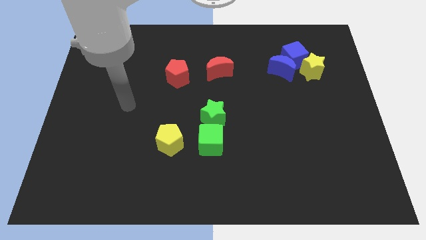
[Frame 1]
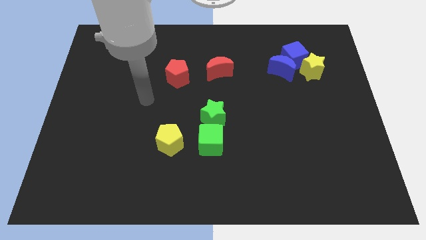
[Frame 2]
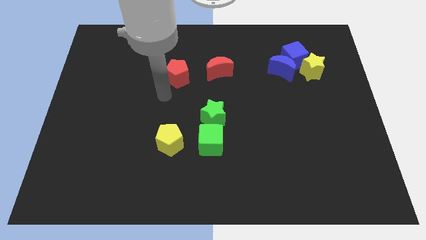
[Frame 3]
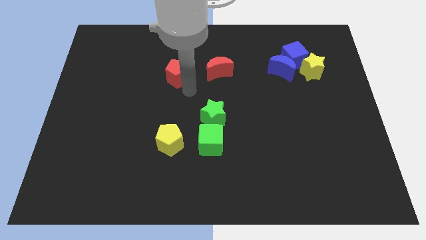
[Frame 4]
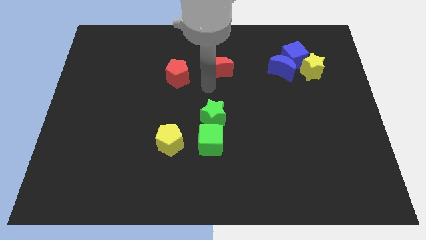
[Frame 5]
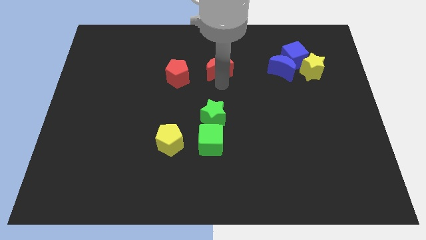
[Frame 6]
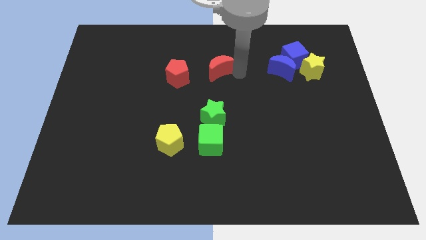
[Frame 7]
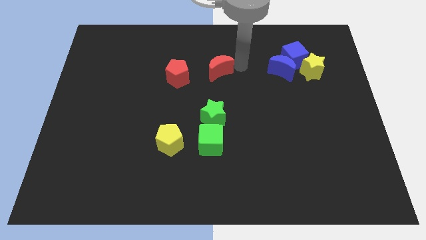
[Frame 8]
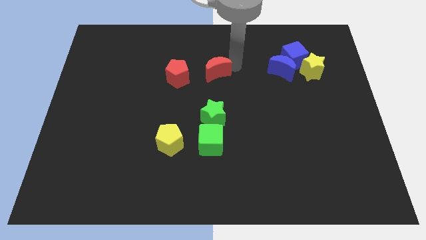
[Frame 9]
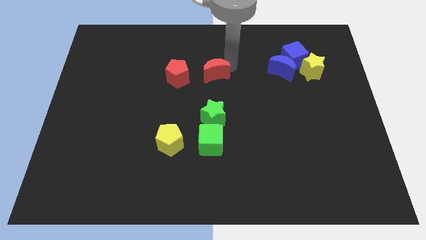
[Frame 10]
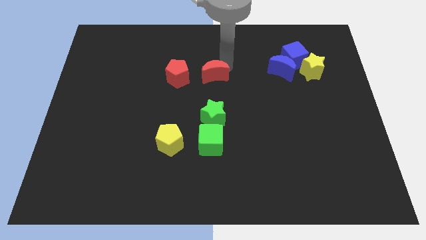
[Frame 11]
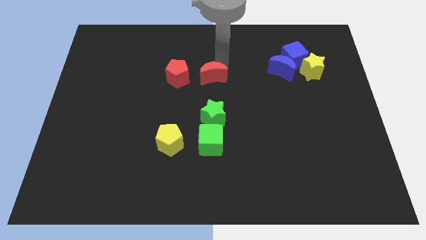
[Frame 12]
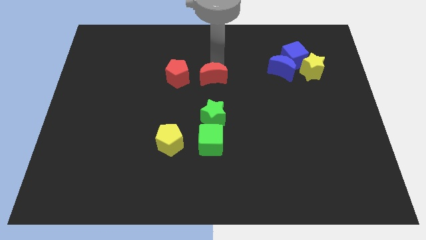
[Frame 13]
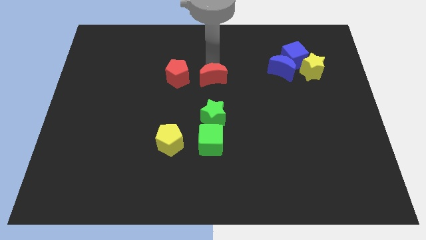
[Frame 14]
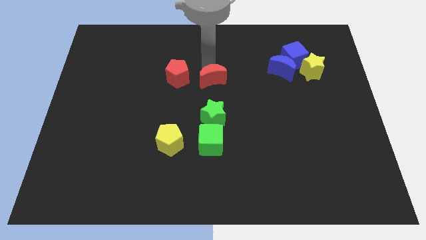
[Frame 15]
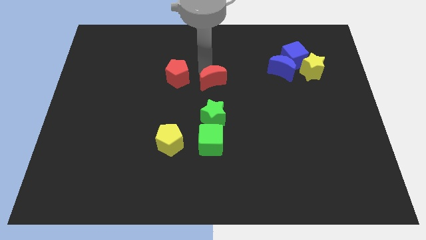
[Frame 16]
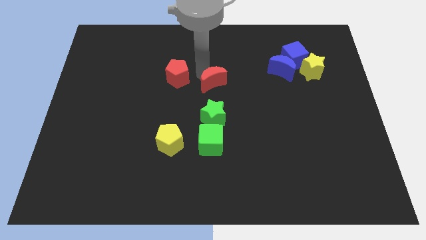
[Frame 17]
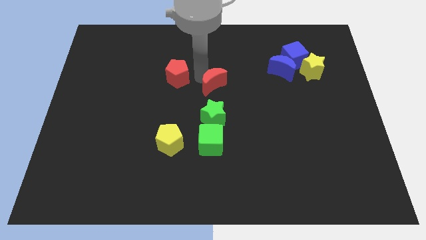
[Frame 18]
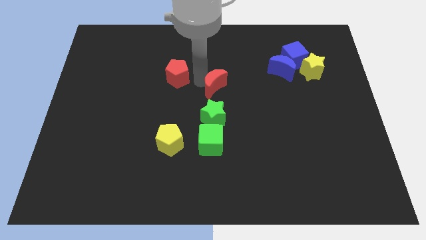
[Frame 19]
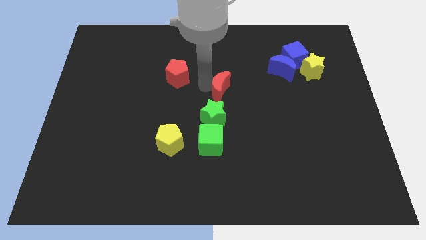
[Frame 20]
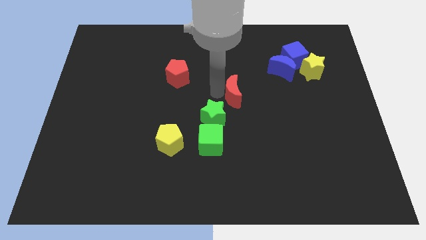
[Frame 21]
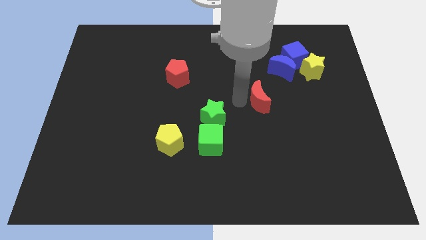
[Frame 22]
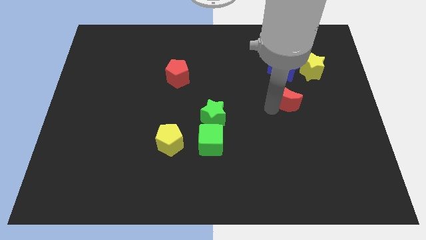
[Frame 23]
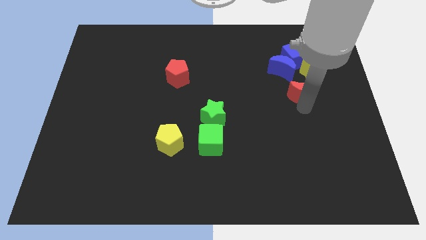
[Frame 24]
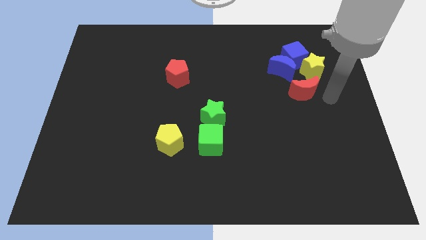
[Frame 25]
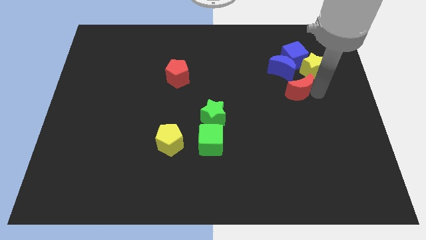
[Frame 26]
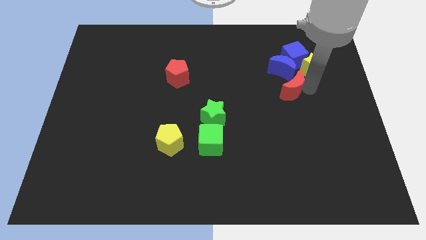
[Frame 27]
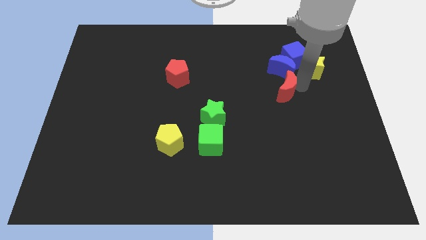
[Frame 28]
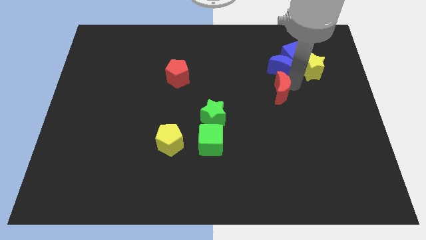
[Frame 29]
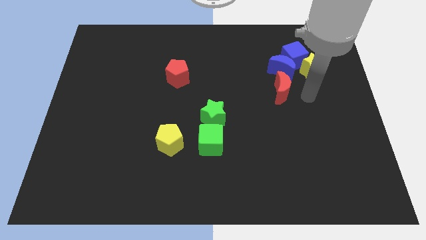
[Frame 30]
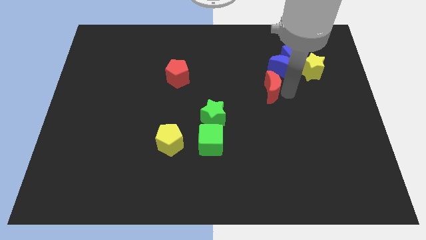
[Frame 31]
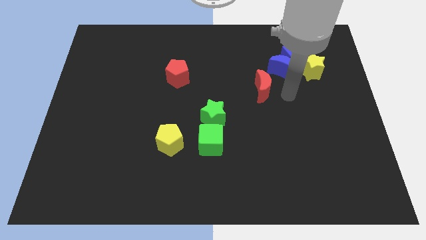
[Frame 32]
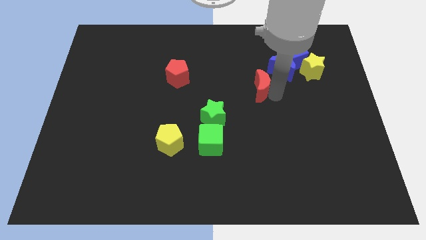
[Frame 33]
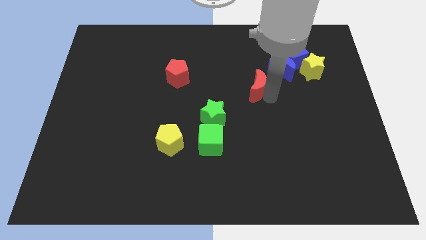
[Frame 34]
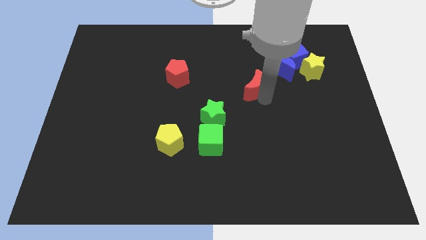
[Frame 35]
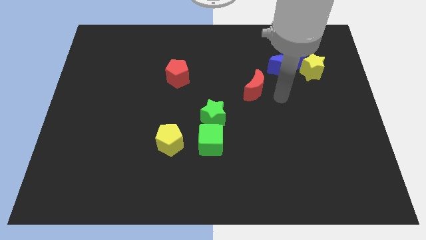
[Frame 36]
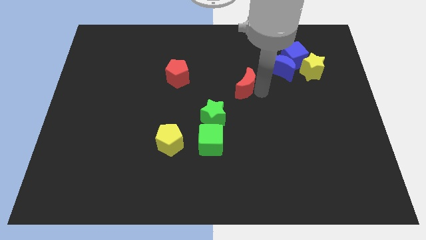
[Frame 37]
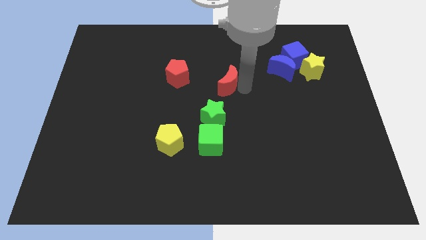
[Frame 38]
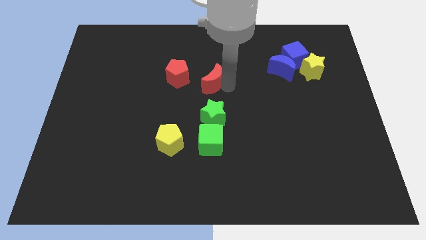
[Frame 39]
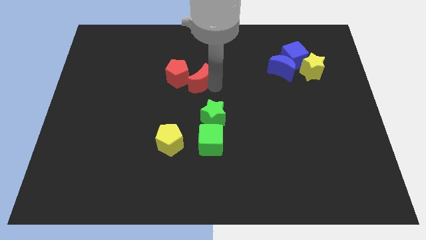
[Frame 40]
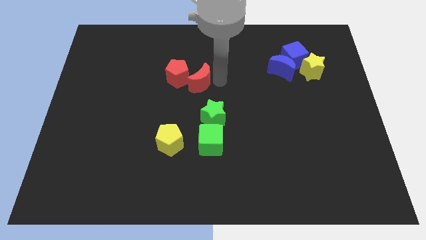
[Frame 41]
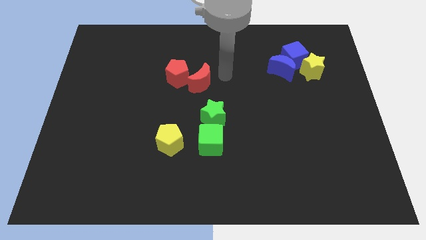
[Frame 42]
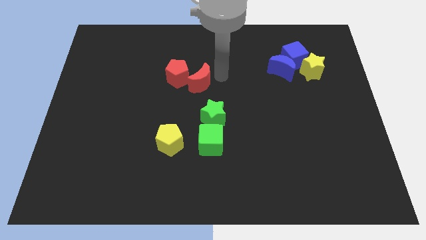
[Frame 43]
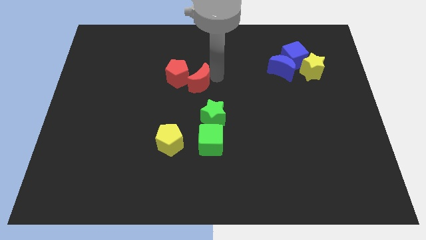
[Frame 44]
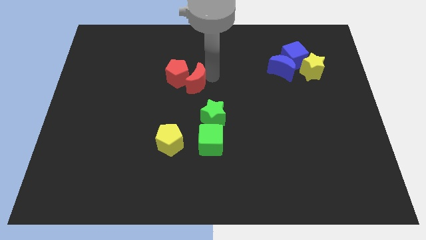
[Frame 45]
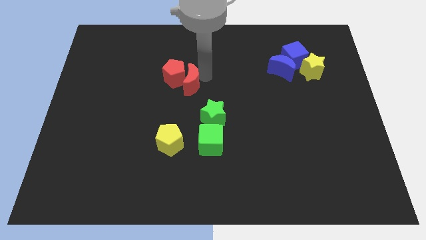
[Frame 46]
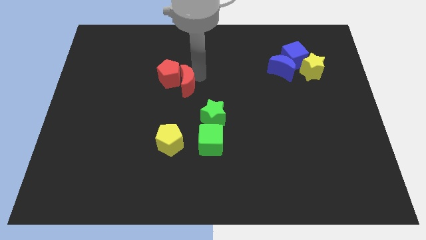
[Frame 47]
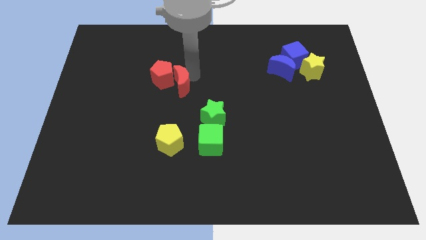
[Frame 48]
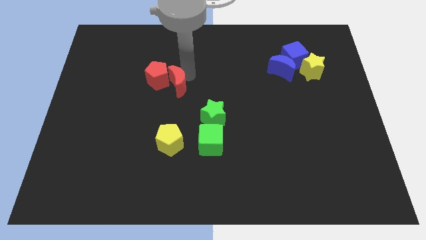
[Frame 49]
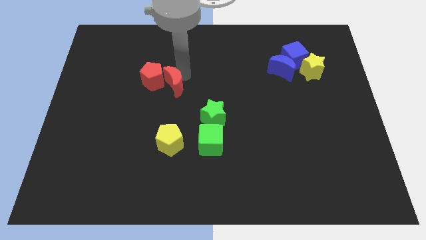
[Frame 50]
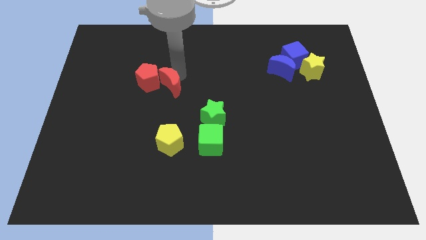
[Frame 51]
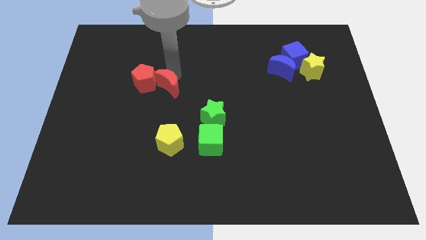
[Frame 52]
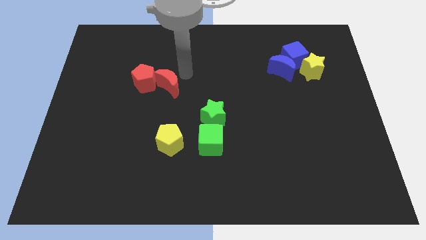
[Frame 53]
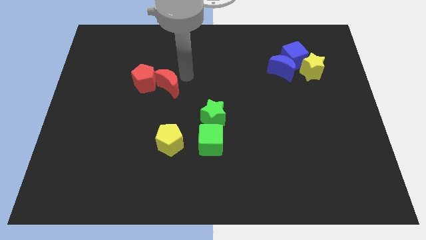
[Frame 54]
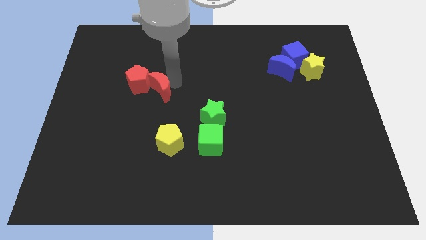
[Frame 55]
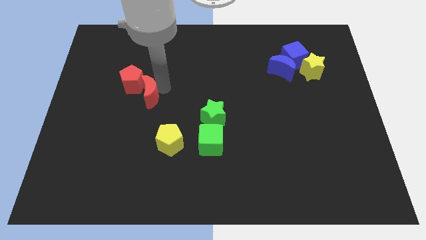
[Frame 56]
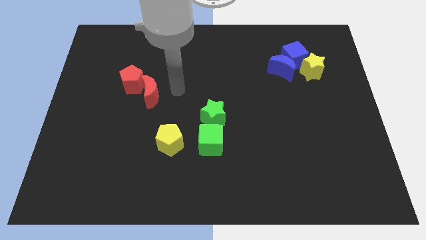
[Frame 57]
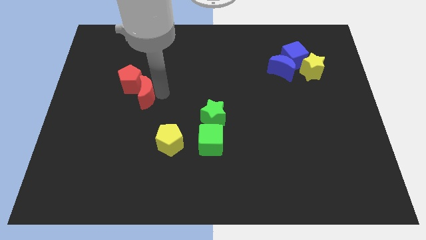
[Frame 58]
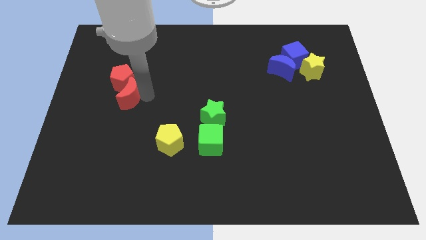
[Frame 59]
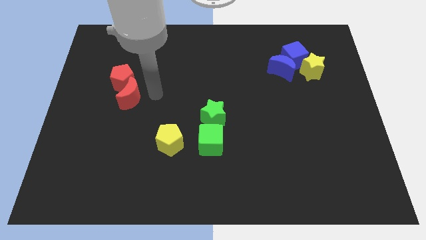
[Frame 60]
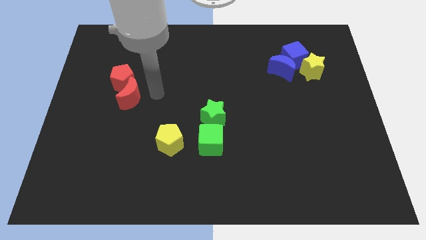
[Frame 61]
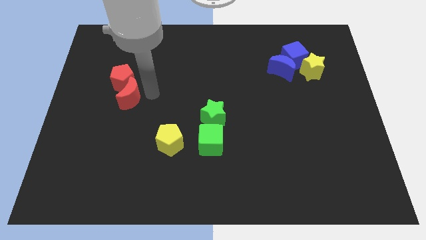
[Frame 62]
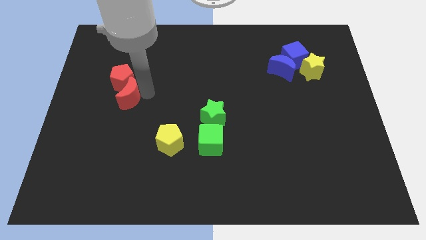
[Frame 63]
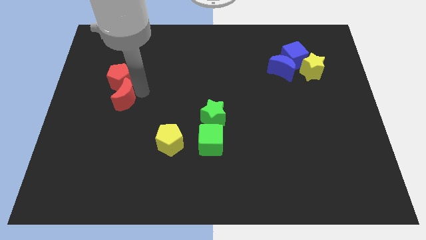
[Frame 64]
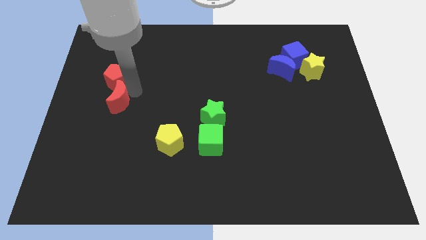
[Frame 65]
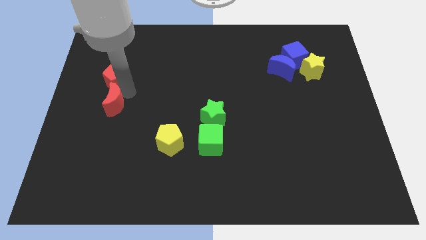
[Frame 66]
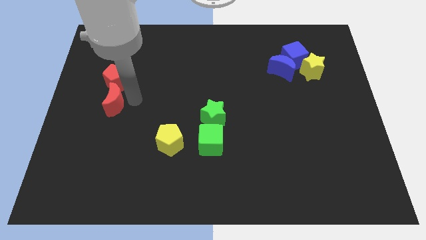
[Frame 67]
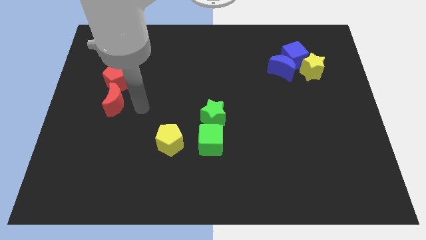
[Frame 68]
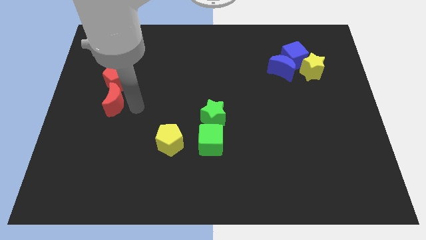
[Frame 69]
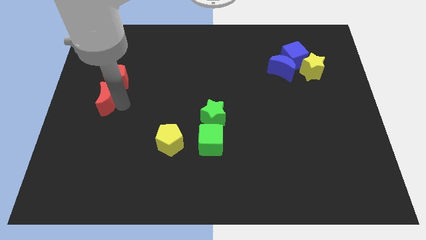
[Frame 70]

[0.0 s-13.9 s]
put the red moon to the center left
